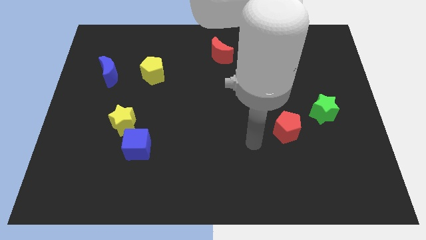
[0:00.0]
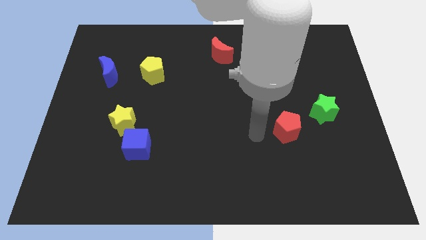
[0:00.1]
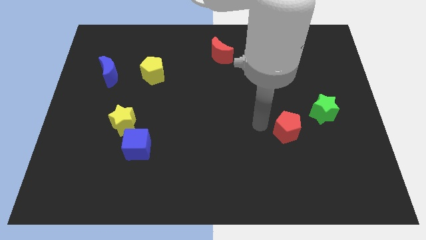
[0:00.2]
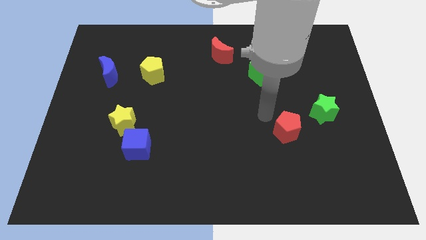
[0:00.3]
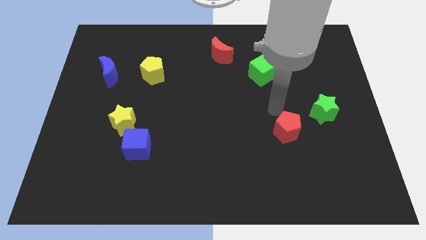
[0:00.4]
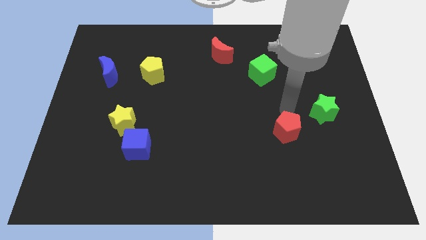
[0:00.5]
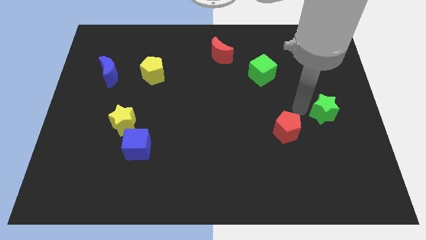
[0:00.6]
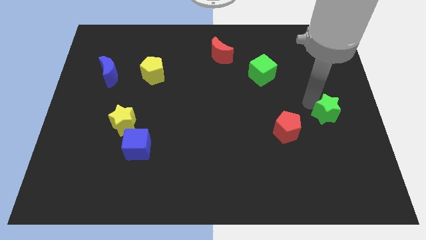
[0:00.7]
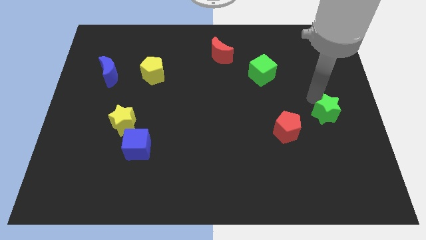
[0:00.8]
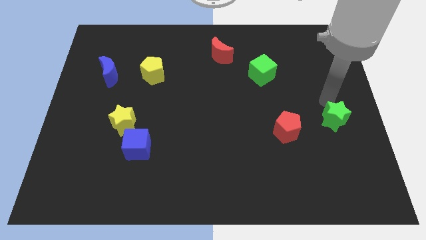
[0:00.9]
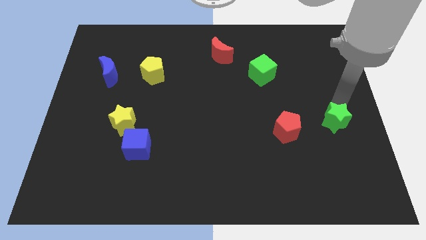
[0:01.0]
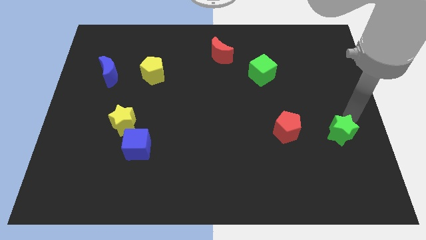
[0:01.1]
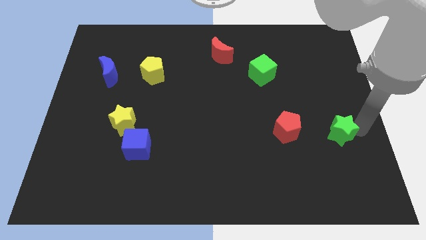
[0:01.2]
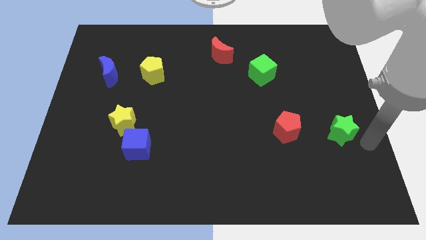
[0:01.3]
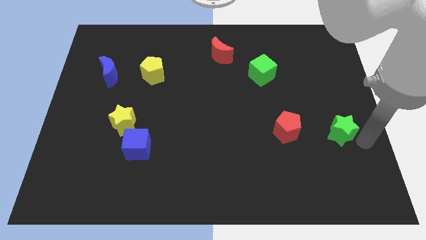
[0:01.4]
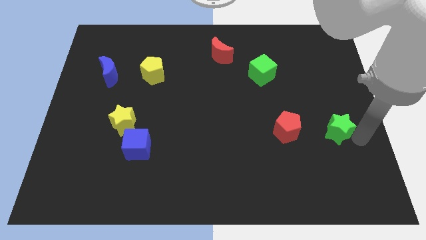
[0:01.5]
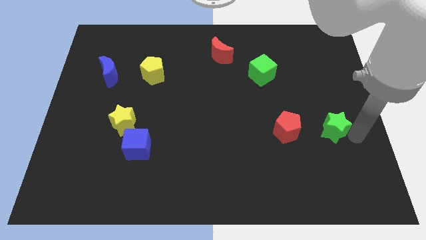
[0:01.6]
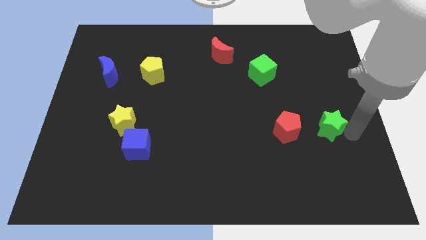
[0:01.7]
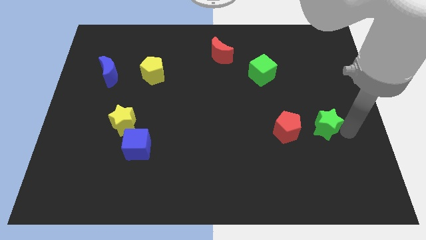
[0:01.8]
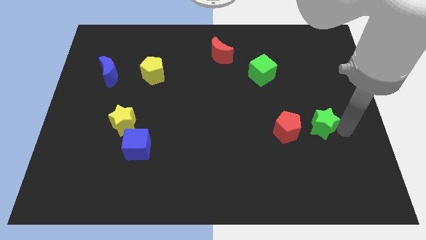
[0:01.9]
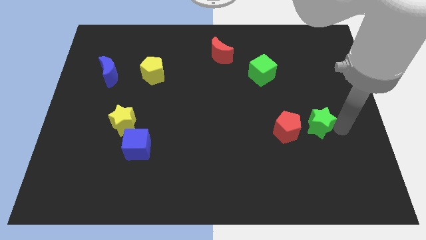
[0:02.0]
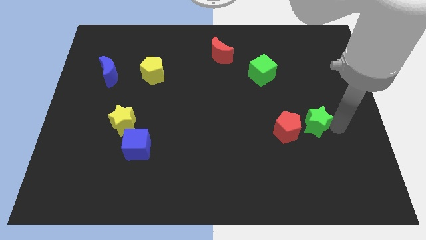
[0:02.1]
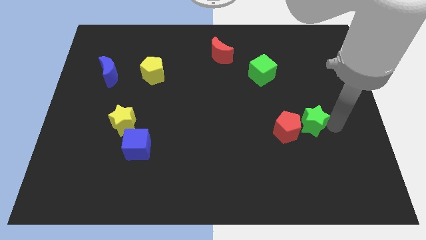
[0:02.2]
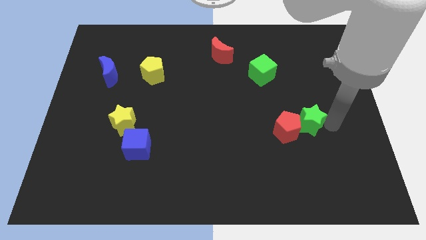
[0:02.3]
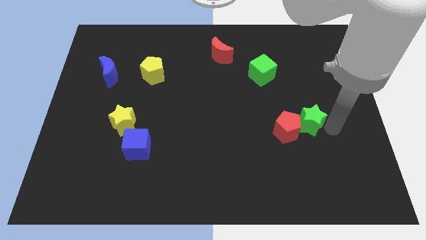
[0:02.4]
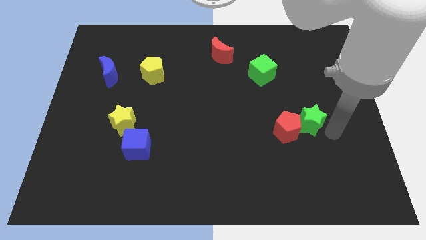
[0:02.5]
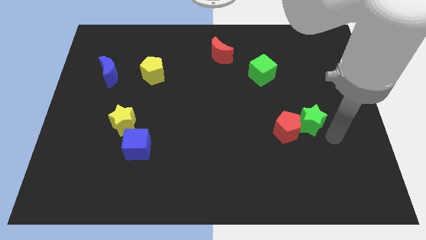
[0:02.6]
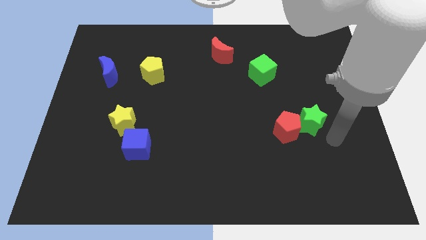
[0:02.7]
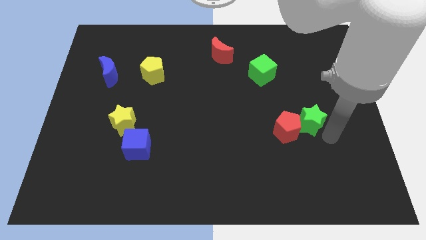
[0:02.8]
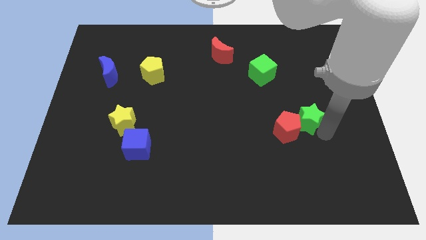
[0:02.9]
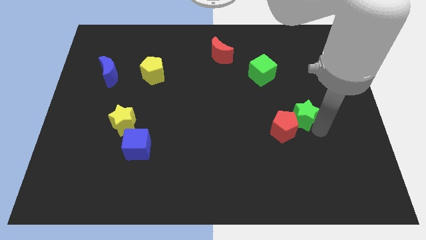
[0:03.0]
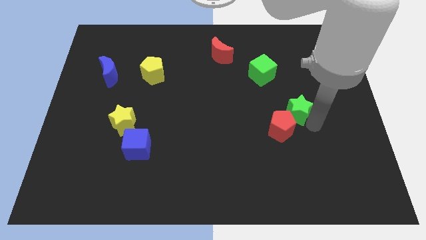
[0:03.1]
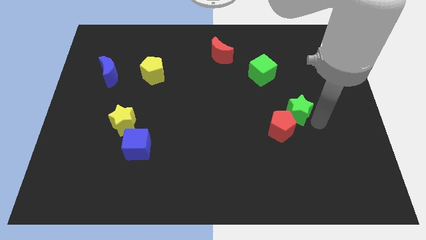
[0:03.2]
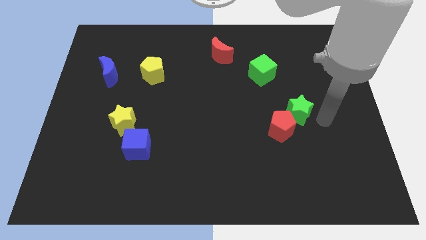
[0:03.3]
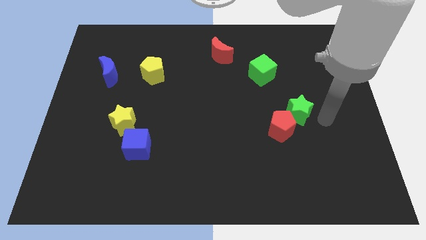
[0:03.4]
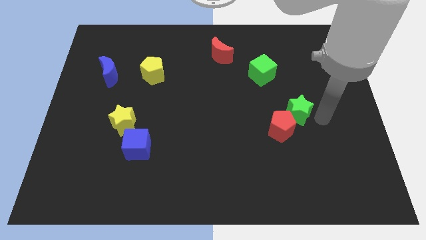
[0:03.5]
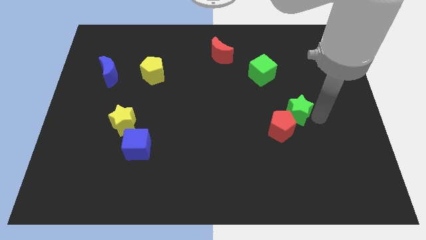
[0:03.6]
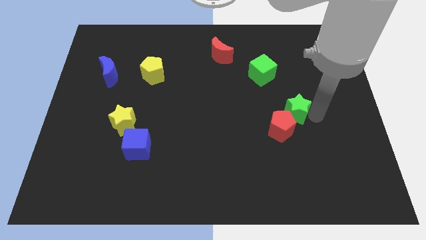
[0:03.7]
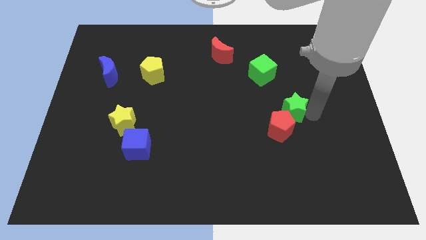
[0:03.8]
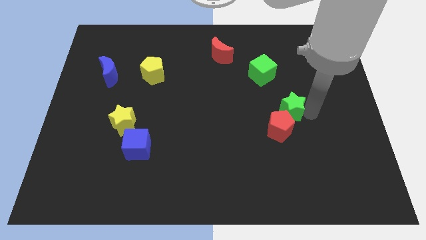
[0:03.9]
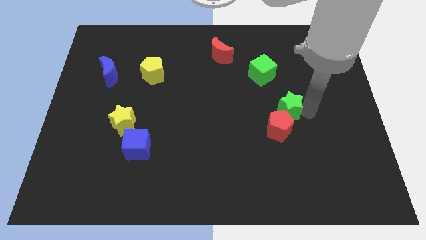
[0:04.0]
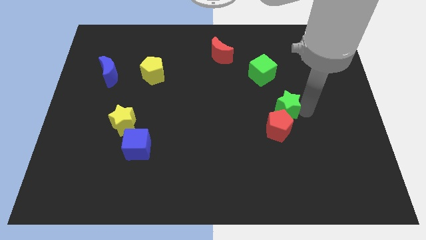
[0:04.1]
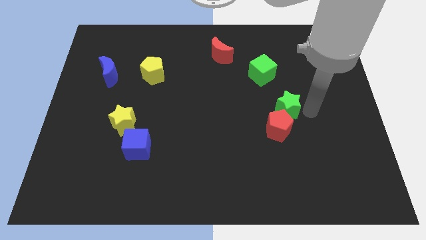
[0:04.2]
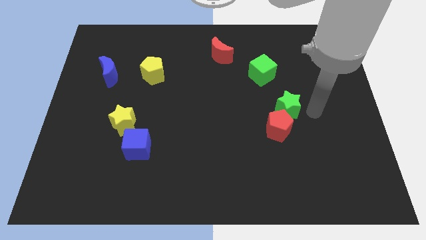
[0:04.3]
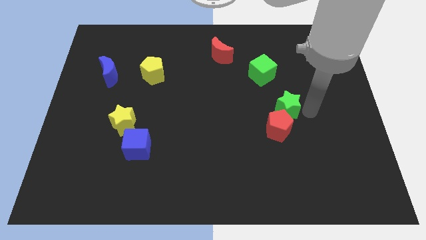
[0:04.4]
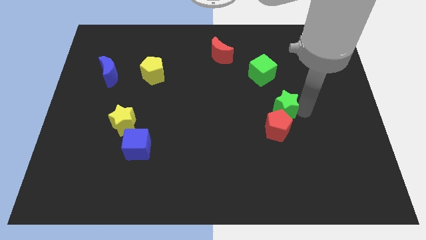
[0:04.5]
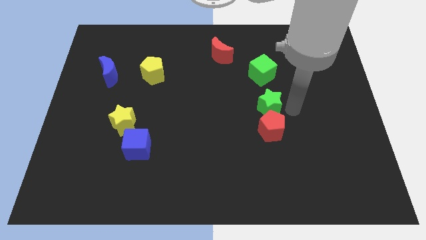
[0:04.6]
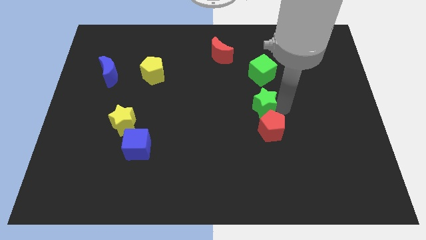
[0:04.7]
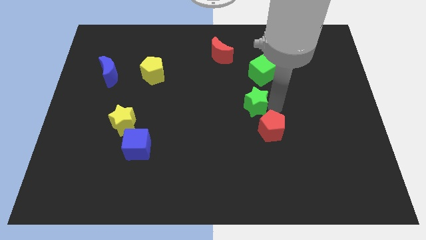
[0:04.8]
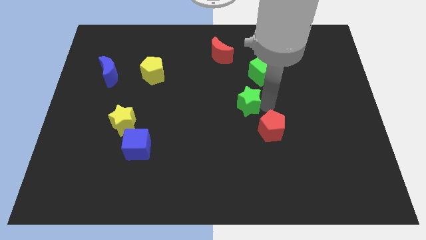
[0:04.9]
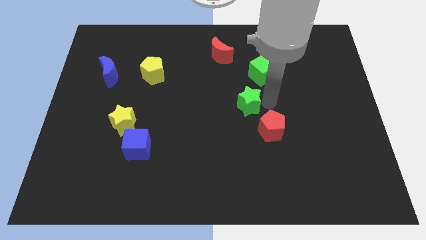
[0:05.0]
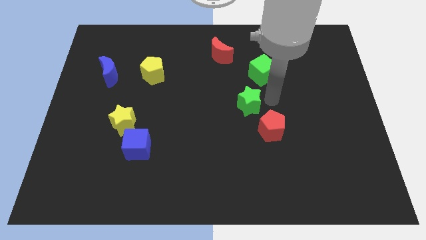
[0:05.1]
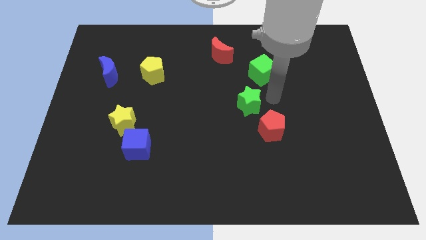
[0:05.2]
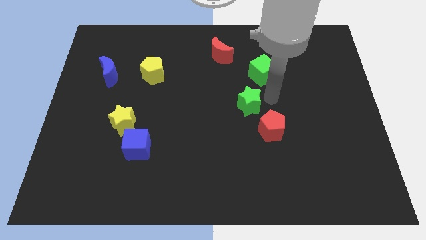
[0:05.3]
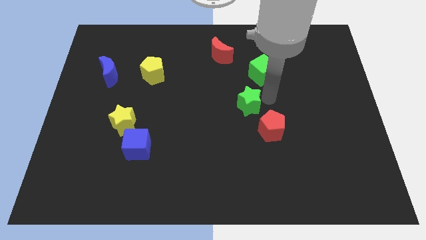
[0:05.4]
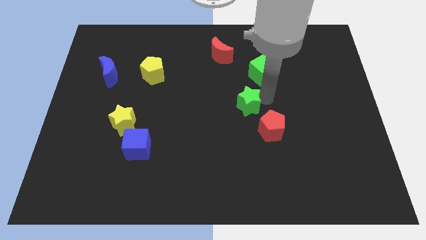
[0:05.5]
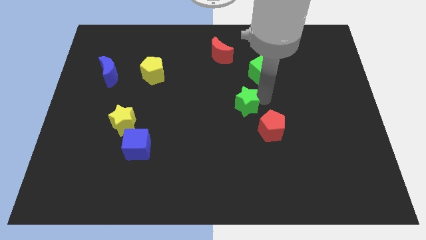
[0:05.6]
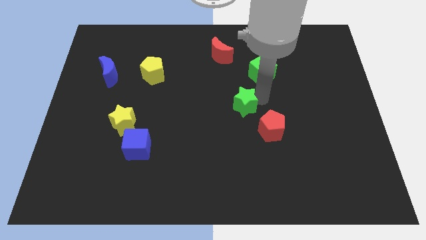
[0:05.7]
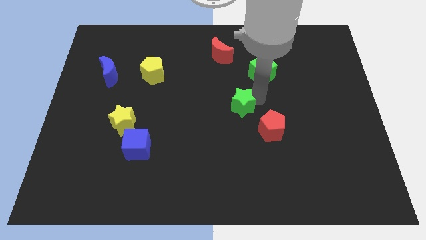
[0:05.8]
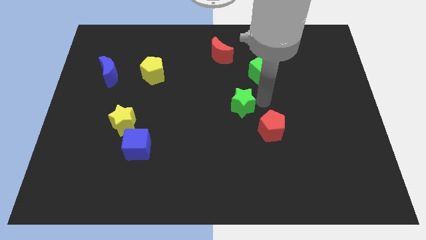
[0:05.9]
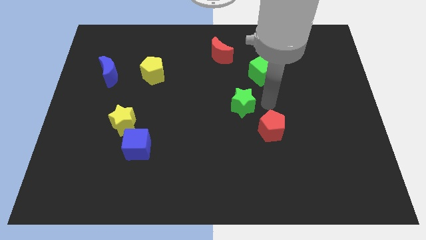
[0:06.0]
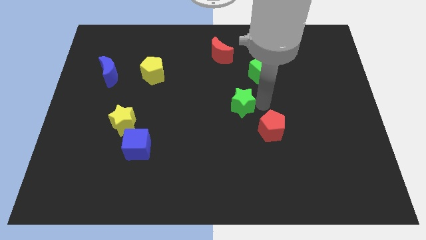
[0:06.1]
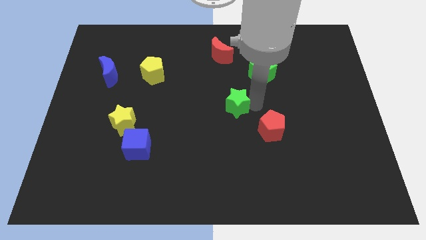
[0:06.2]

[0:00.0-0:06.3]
move the green star to the left

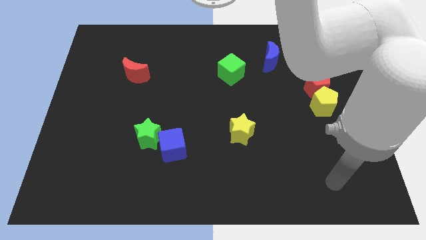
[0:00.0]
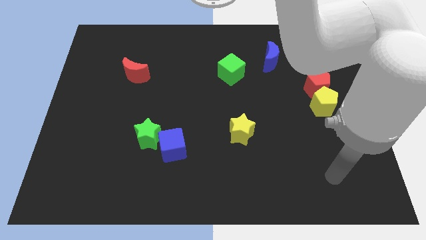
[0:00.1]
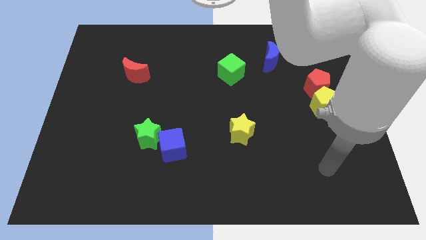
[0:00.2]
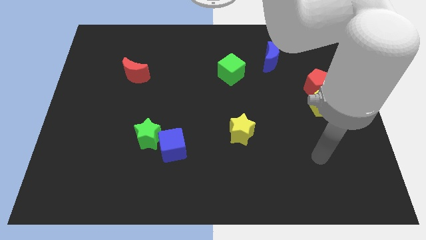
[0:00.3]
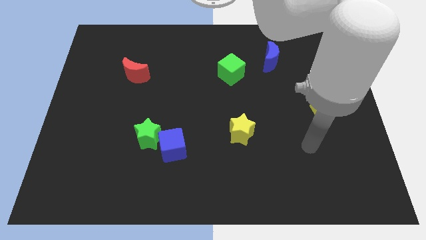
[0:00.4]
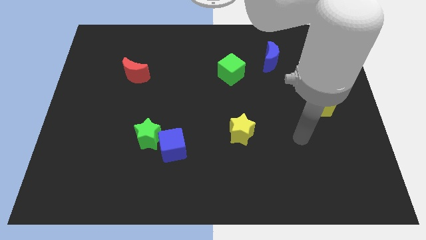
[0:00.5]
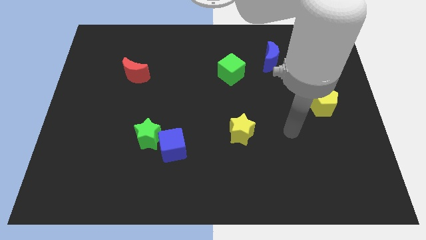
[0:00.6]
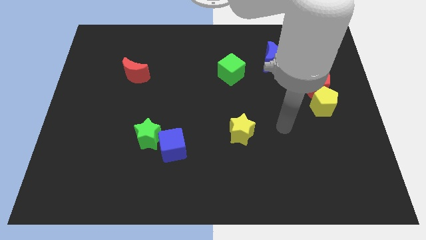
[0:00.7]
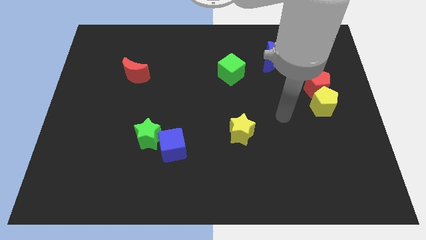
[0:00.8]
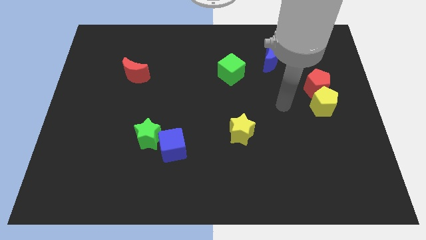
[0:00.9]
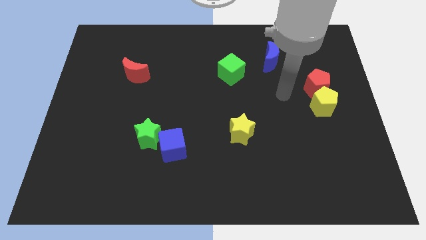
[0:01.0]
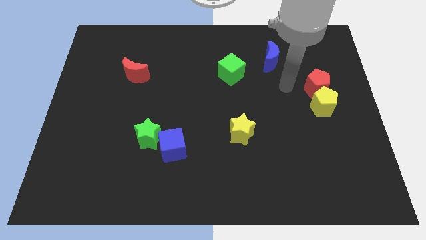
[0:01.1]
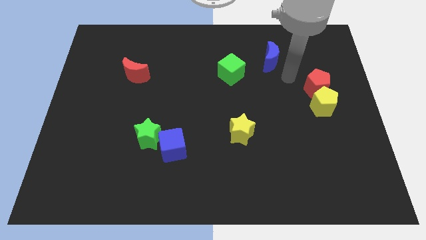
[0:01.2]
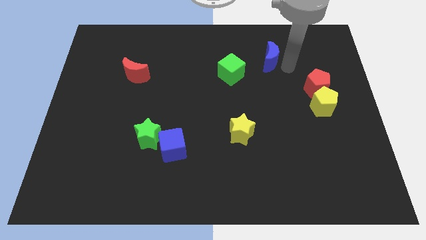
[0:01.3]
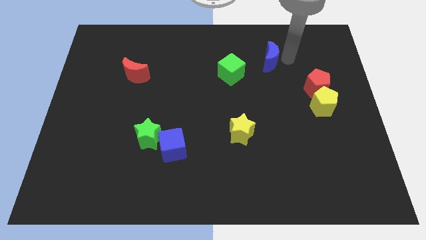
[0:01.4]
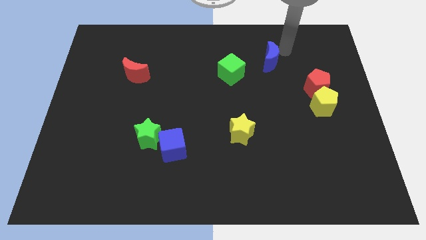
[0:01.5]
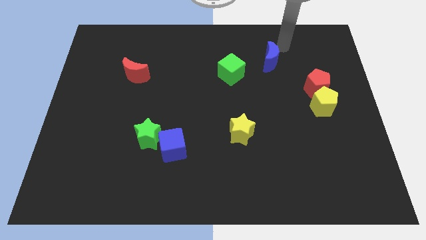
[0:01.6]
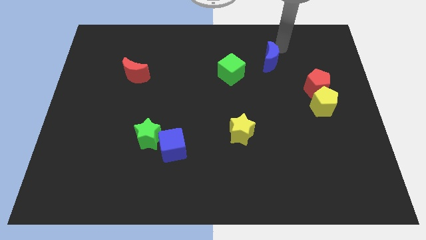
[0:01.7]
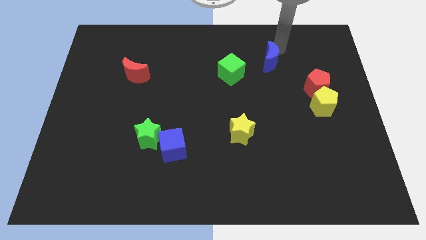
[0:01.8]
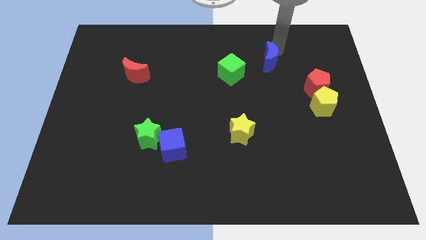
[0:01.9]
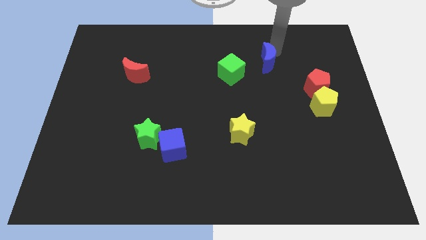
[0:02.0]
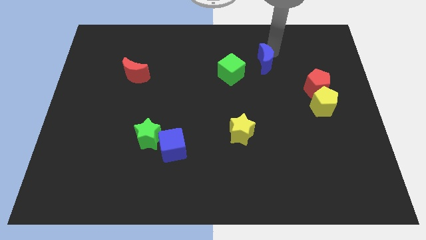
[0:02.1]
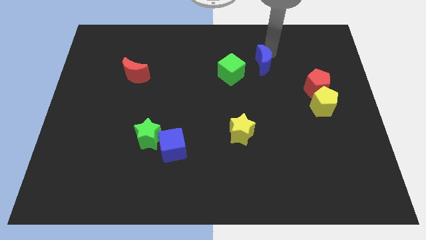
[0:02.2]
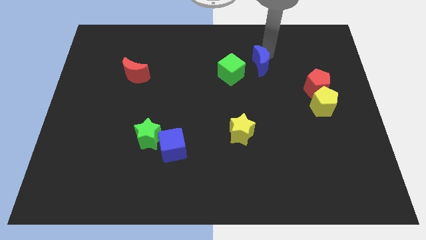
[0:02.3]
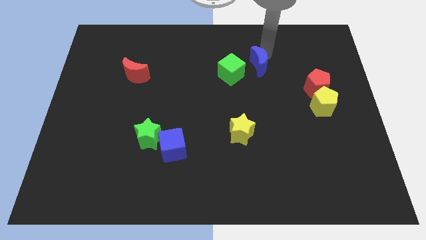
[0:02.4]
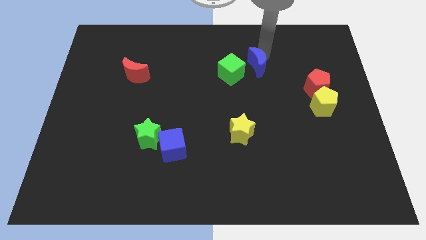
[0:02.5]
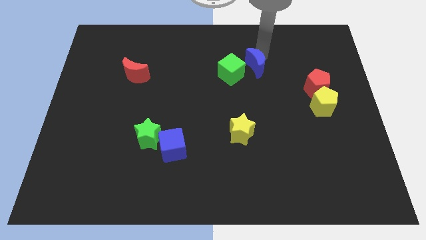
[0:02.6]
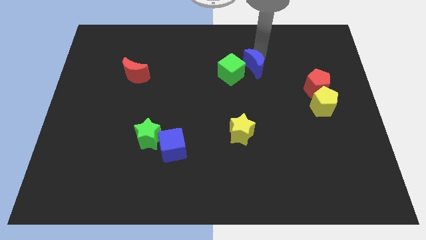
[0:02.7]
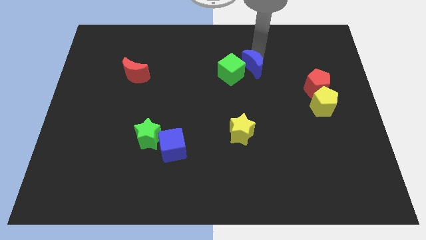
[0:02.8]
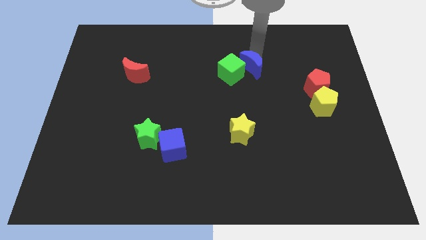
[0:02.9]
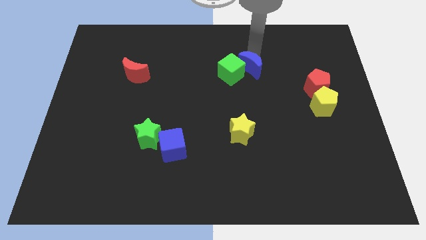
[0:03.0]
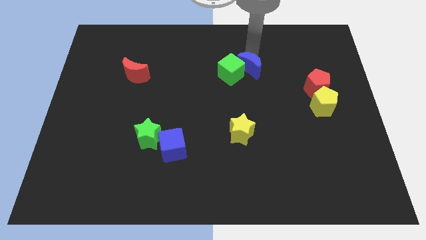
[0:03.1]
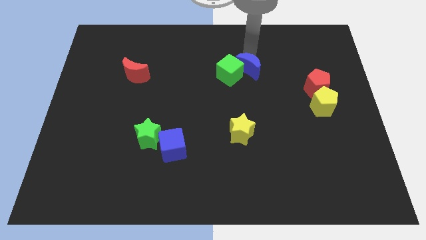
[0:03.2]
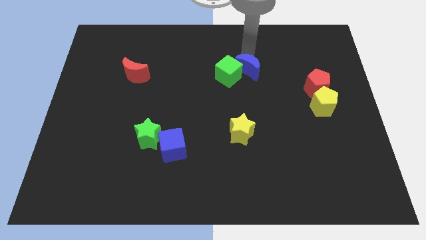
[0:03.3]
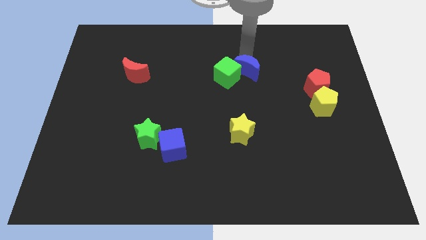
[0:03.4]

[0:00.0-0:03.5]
push the blue moon down and then left somewhat
